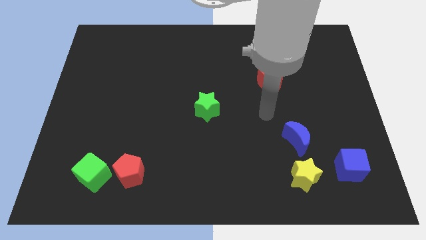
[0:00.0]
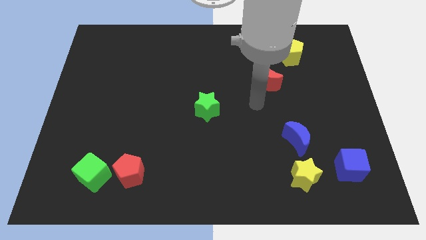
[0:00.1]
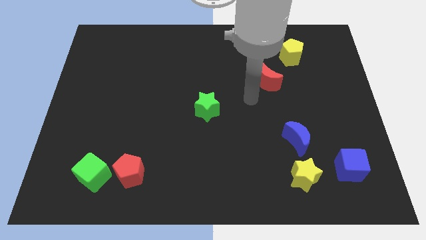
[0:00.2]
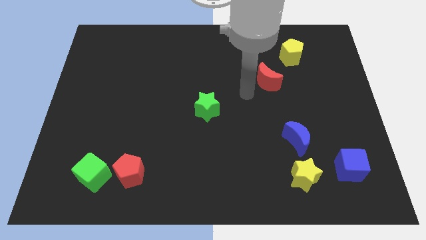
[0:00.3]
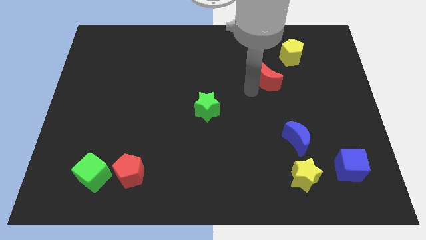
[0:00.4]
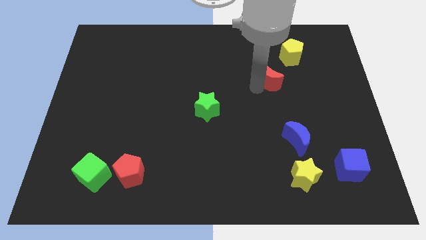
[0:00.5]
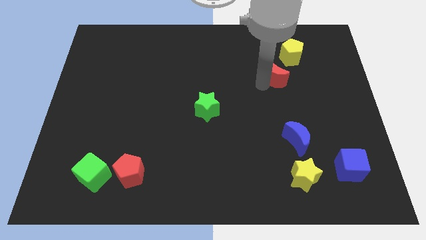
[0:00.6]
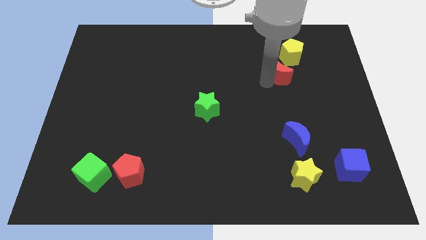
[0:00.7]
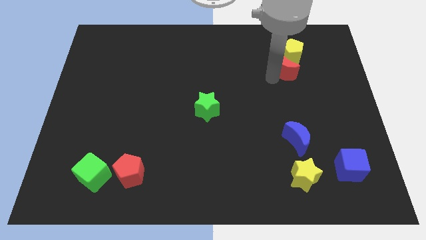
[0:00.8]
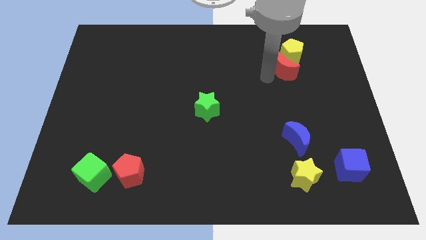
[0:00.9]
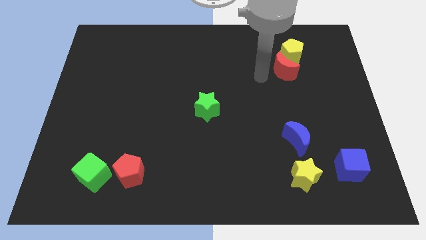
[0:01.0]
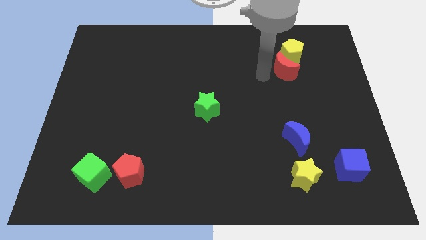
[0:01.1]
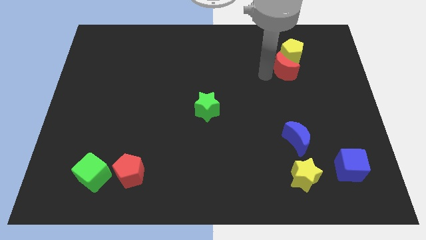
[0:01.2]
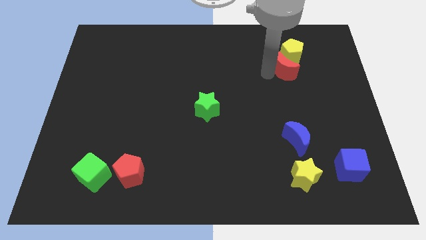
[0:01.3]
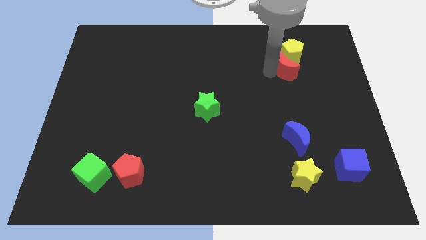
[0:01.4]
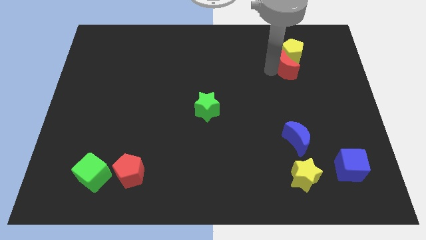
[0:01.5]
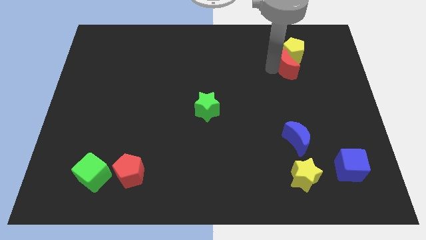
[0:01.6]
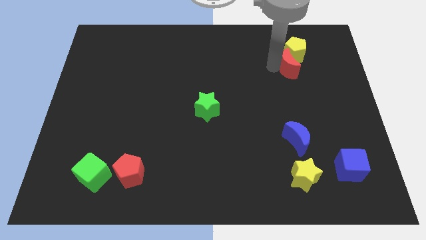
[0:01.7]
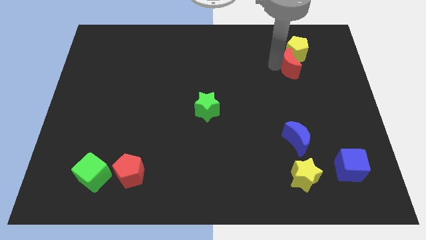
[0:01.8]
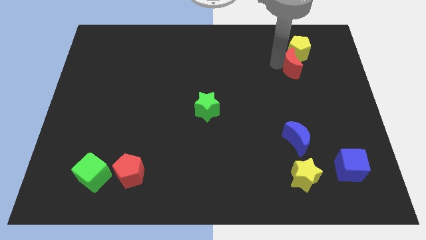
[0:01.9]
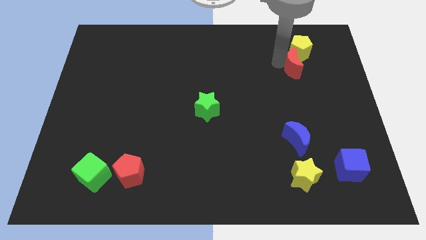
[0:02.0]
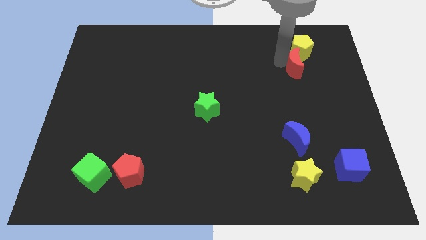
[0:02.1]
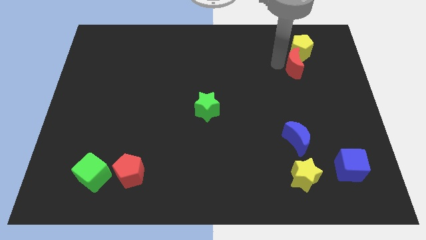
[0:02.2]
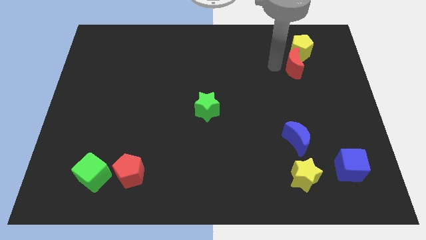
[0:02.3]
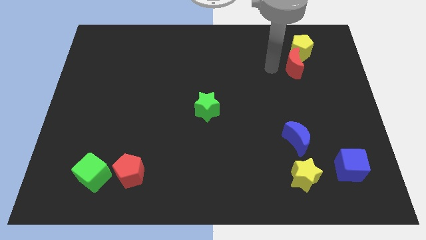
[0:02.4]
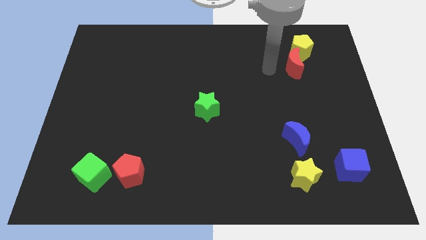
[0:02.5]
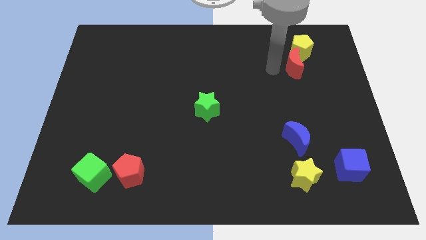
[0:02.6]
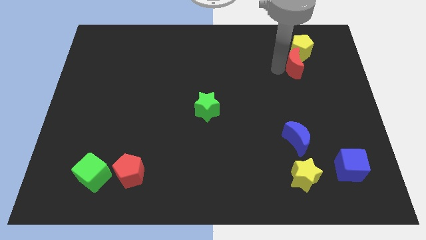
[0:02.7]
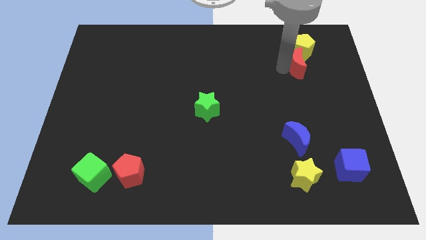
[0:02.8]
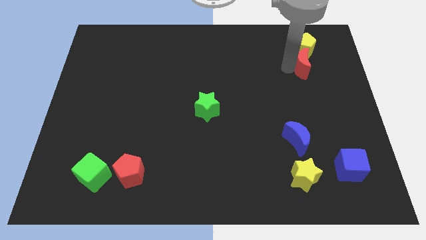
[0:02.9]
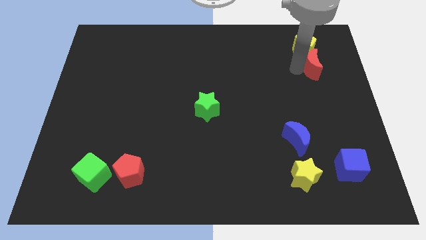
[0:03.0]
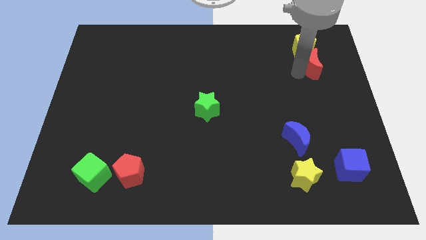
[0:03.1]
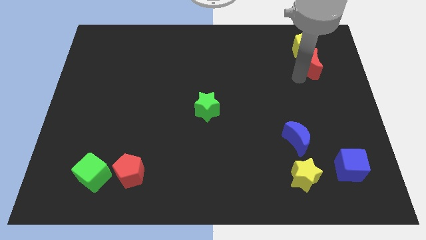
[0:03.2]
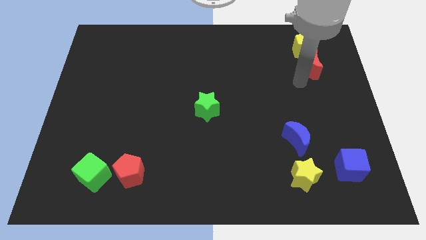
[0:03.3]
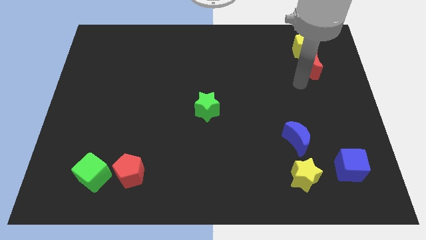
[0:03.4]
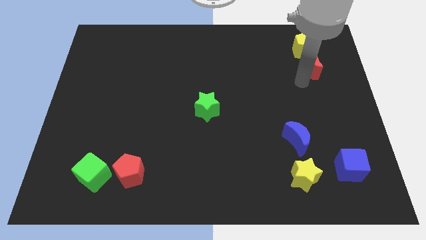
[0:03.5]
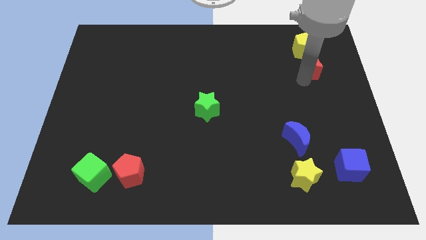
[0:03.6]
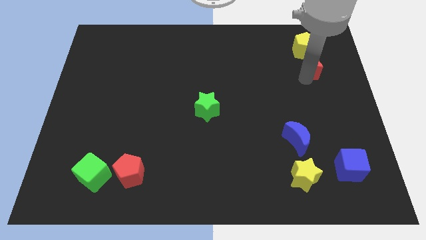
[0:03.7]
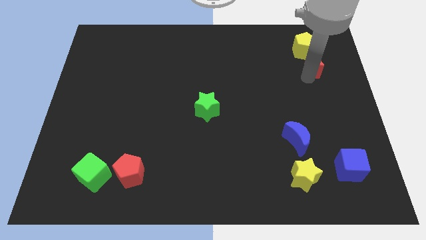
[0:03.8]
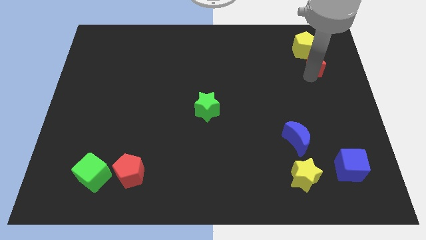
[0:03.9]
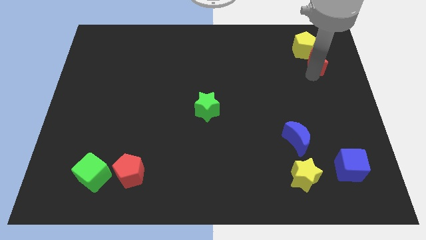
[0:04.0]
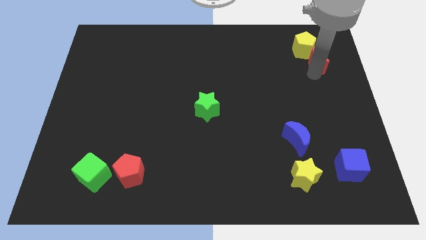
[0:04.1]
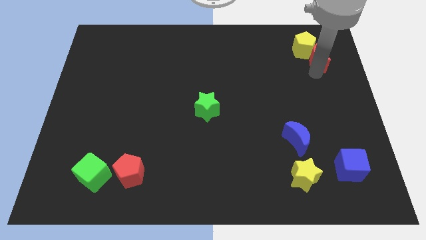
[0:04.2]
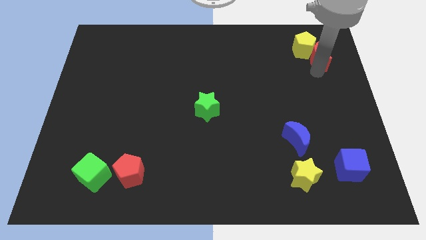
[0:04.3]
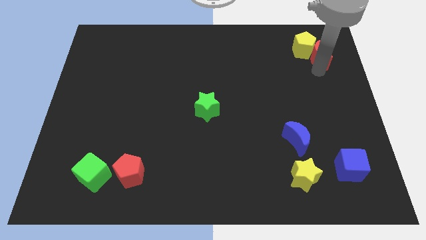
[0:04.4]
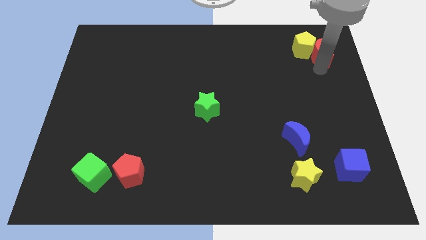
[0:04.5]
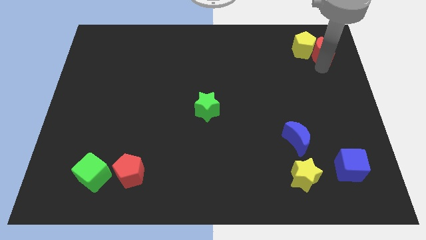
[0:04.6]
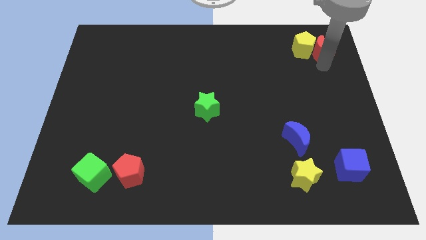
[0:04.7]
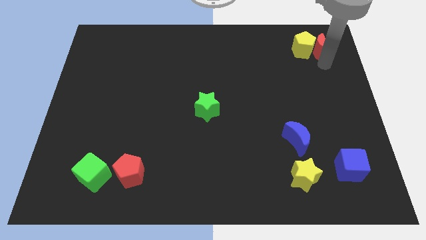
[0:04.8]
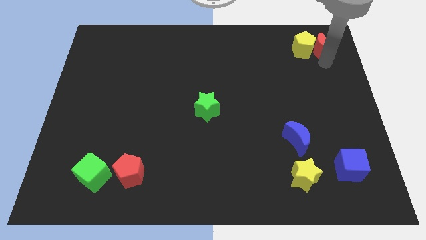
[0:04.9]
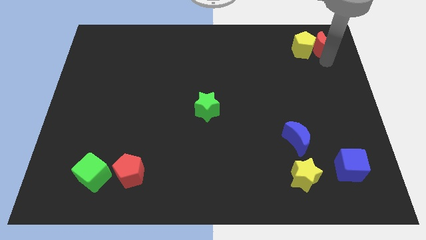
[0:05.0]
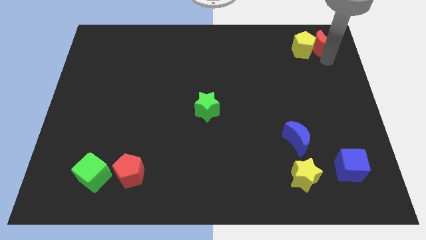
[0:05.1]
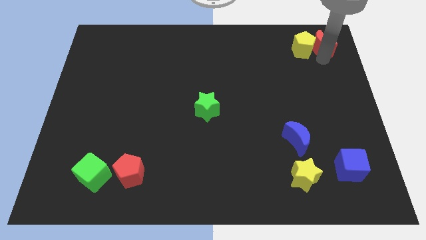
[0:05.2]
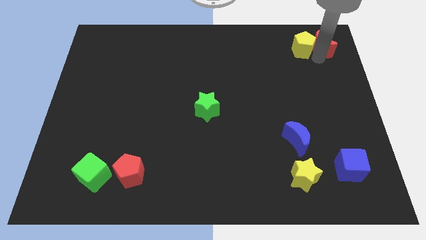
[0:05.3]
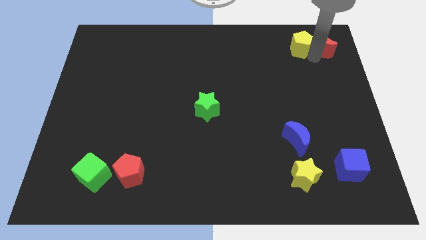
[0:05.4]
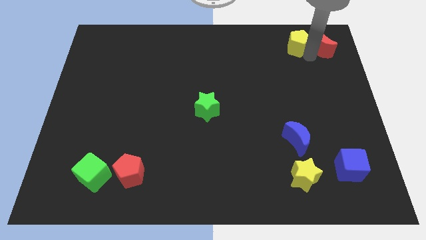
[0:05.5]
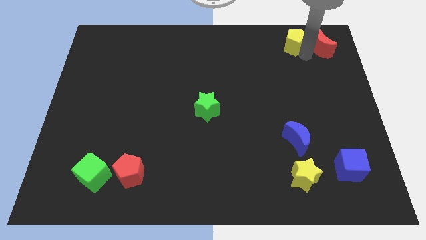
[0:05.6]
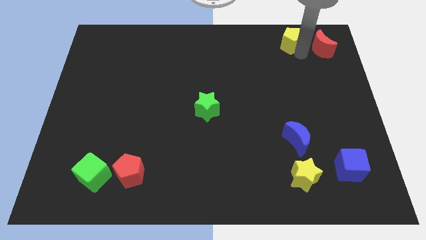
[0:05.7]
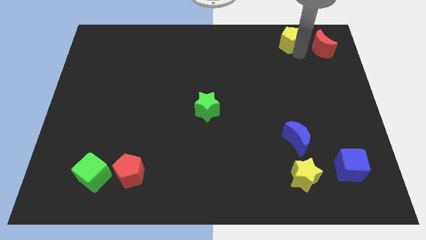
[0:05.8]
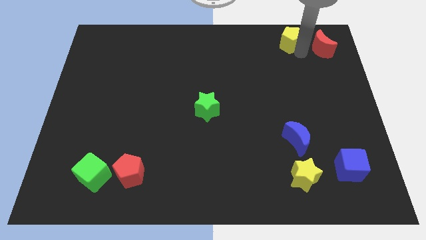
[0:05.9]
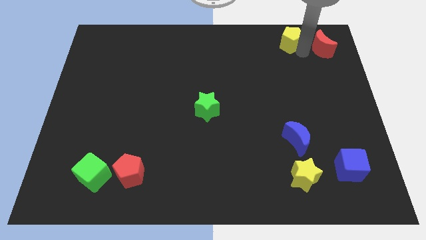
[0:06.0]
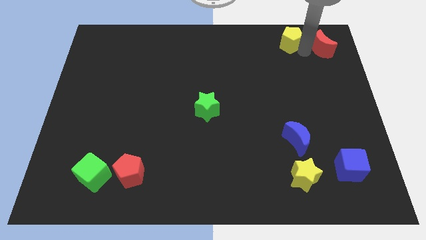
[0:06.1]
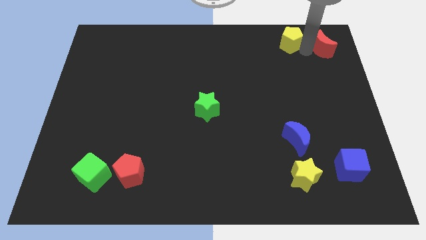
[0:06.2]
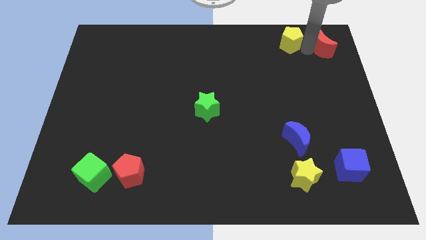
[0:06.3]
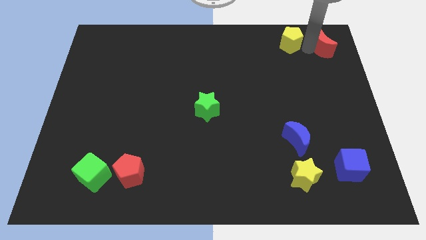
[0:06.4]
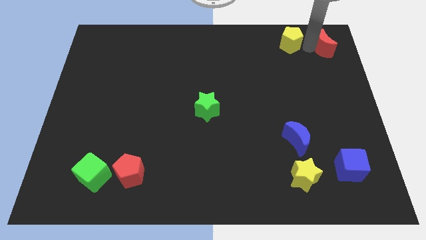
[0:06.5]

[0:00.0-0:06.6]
push the red moon to the top right of the board
